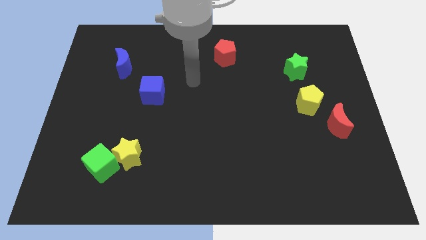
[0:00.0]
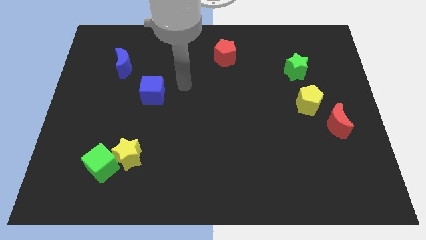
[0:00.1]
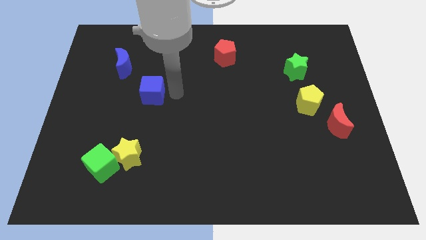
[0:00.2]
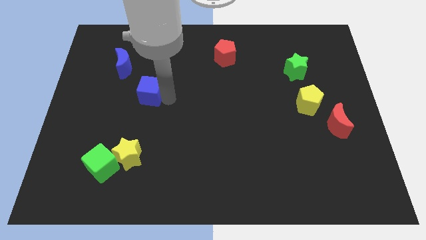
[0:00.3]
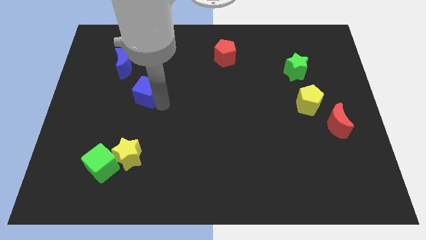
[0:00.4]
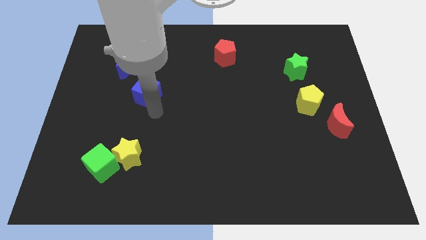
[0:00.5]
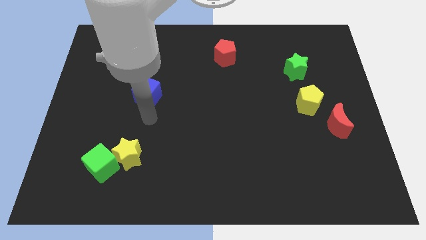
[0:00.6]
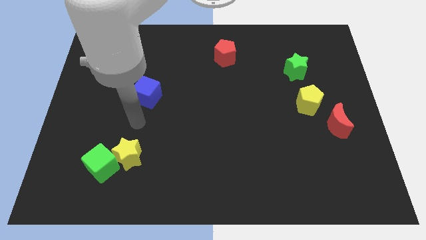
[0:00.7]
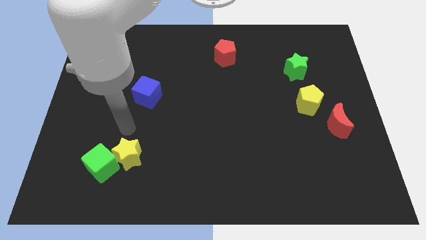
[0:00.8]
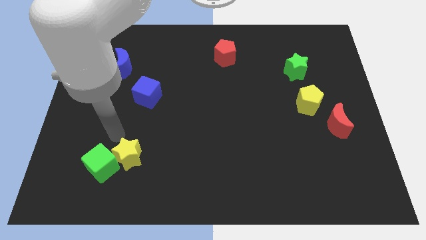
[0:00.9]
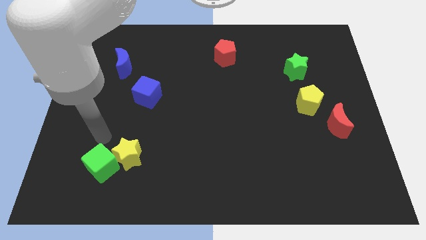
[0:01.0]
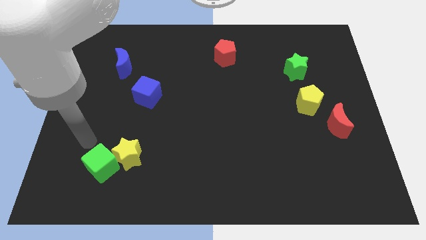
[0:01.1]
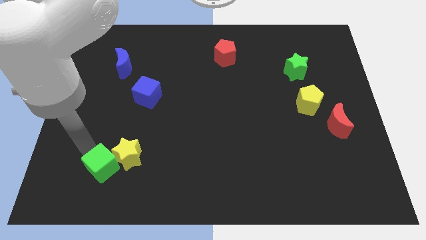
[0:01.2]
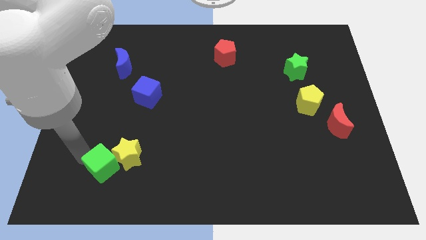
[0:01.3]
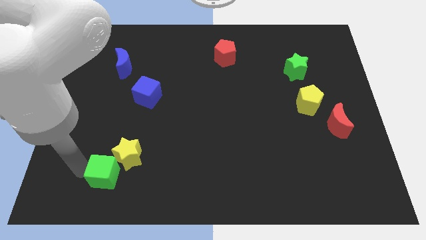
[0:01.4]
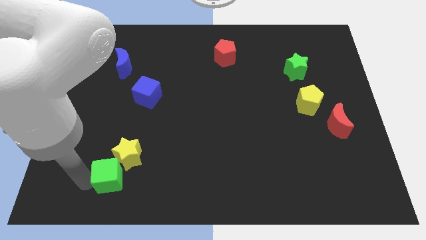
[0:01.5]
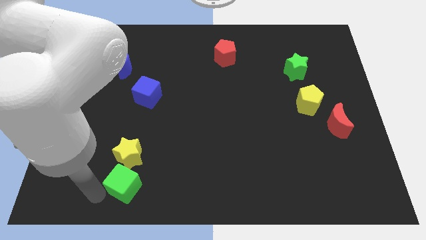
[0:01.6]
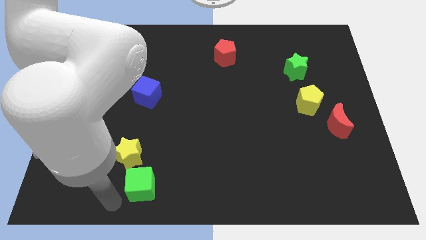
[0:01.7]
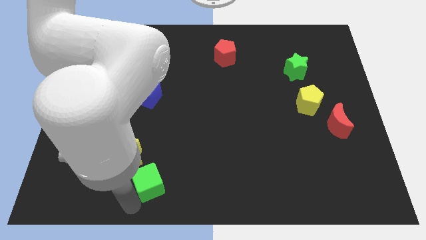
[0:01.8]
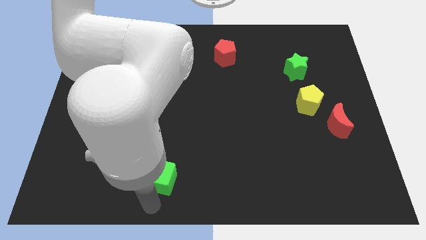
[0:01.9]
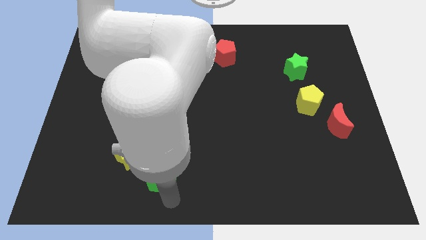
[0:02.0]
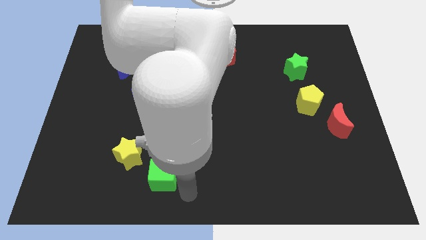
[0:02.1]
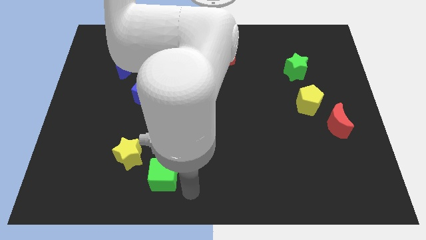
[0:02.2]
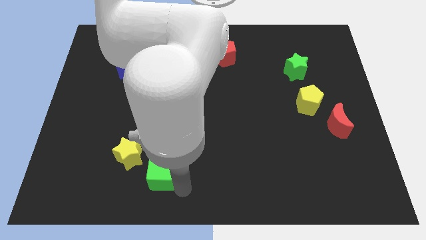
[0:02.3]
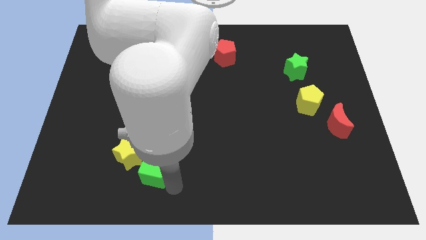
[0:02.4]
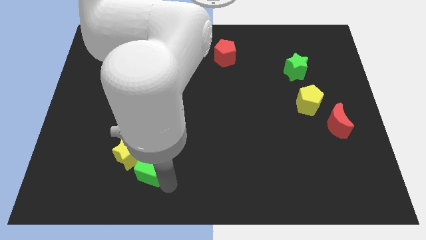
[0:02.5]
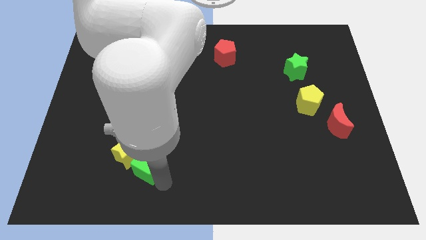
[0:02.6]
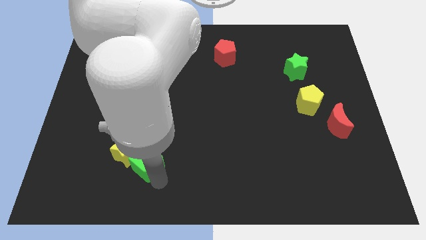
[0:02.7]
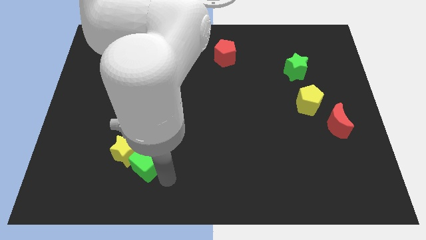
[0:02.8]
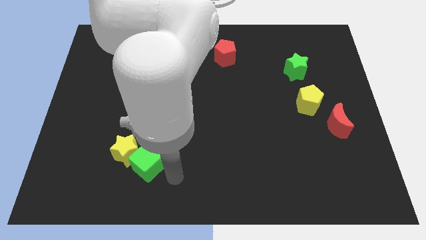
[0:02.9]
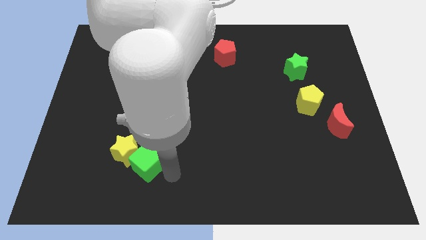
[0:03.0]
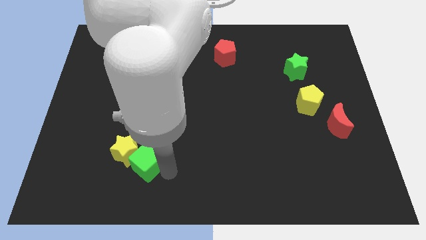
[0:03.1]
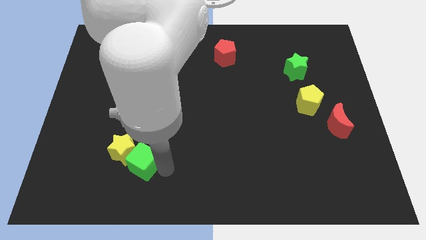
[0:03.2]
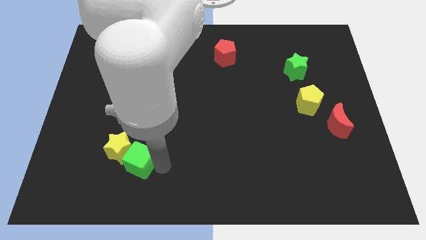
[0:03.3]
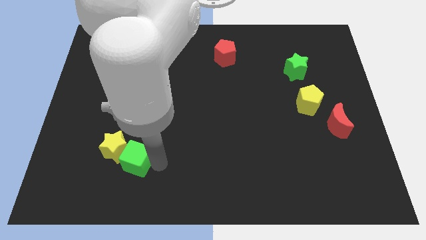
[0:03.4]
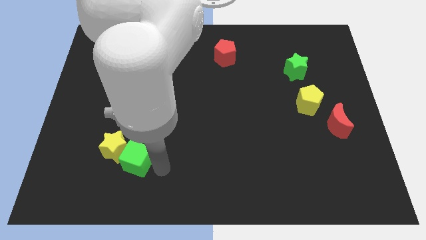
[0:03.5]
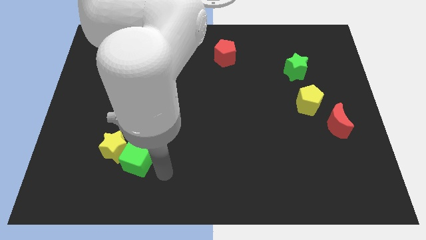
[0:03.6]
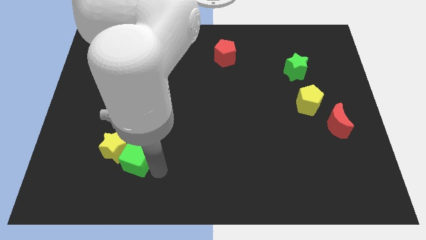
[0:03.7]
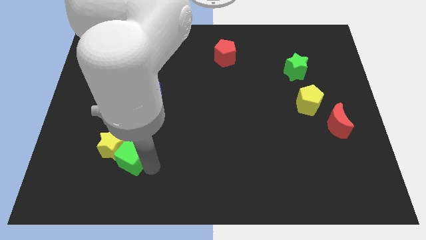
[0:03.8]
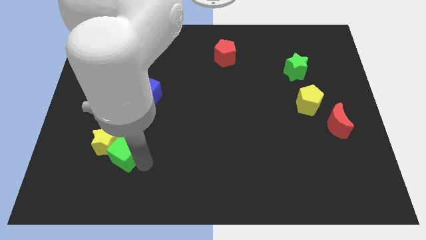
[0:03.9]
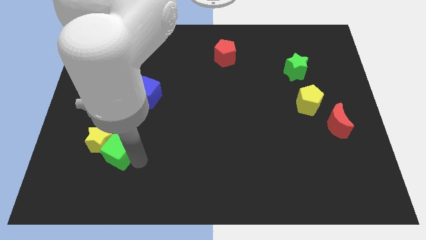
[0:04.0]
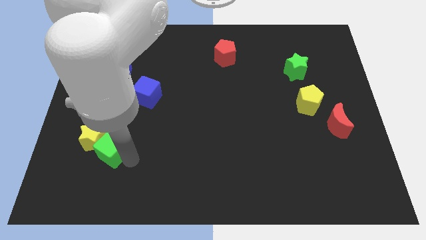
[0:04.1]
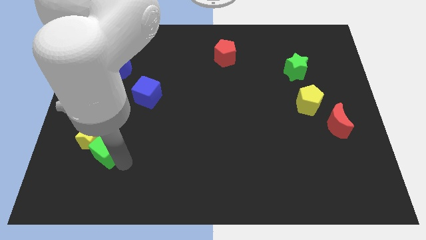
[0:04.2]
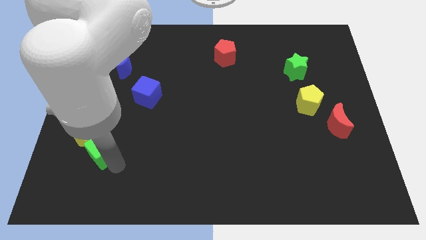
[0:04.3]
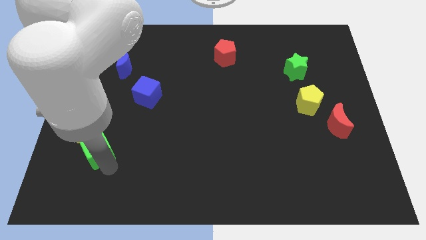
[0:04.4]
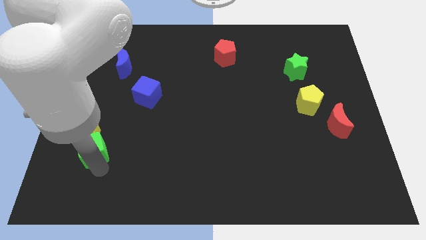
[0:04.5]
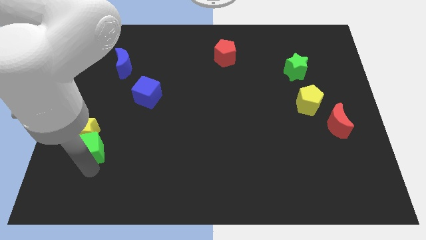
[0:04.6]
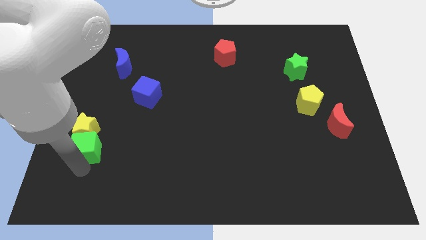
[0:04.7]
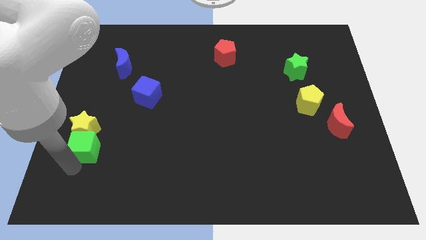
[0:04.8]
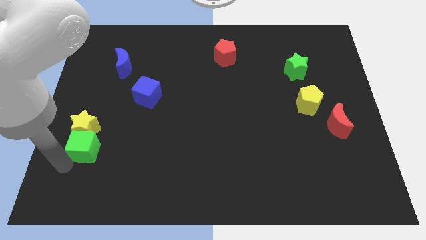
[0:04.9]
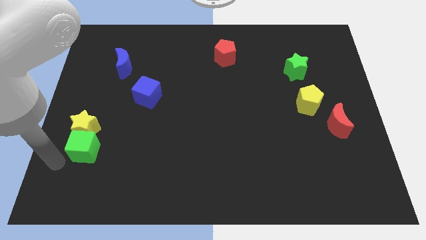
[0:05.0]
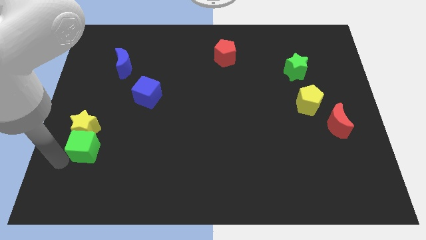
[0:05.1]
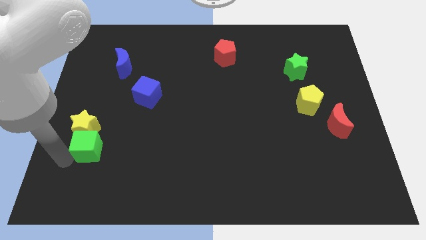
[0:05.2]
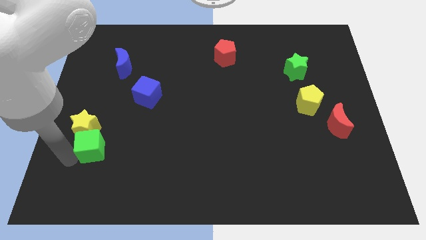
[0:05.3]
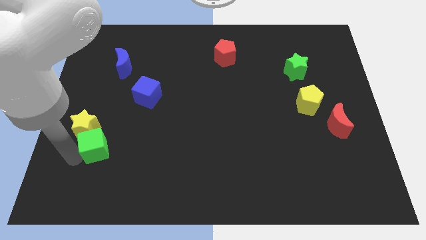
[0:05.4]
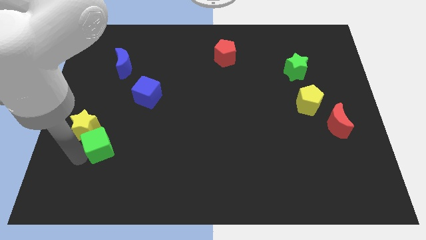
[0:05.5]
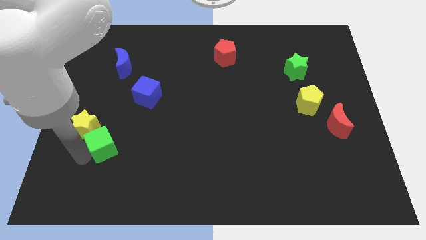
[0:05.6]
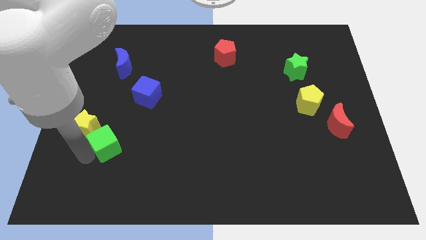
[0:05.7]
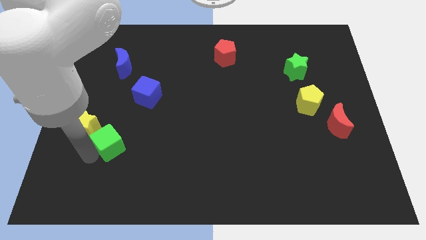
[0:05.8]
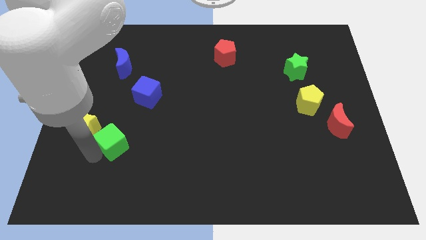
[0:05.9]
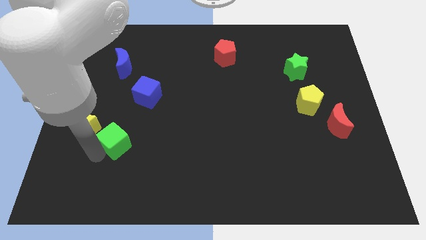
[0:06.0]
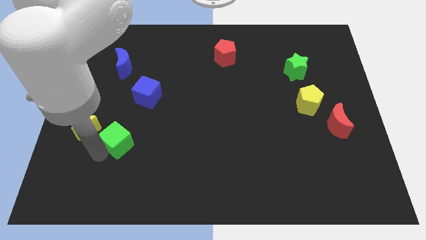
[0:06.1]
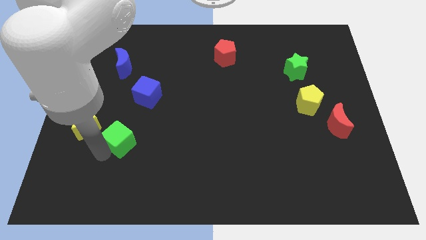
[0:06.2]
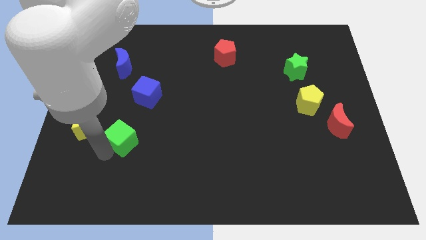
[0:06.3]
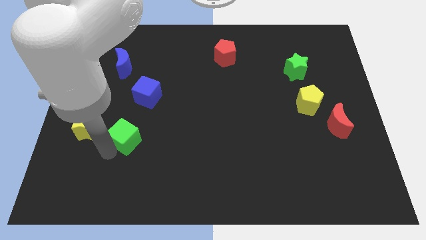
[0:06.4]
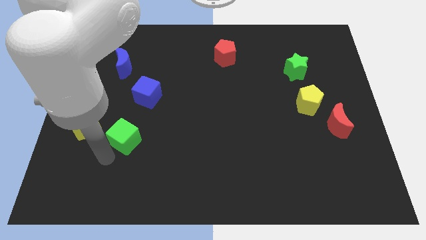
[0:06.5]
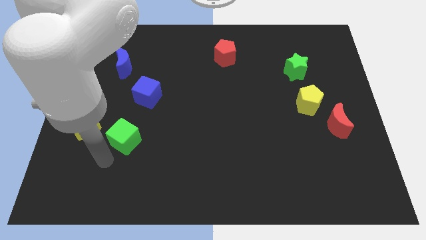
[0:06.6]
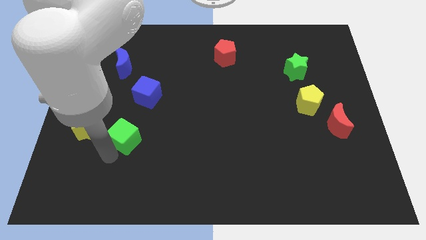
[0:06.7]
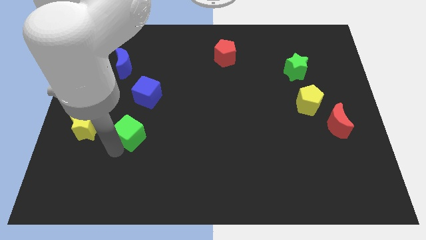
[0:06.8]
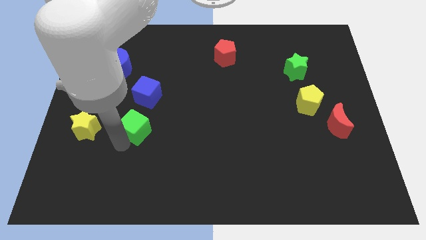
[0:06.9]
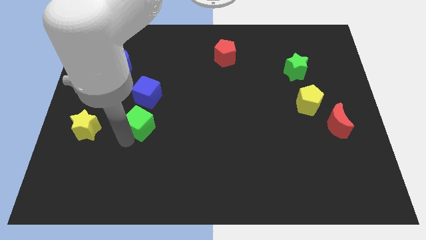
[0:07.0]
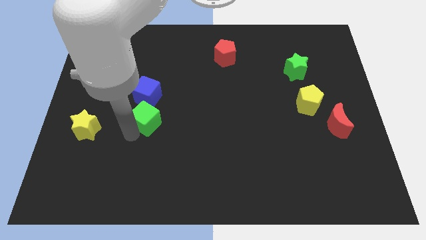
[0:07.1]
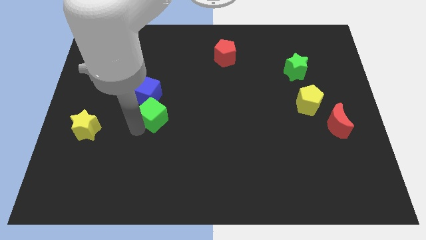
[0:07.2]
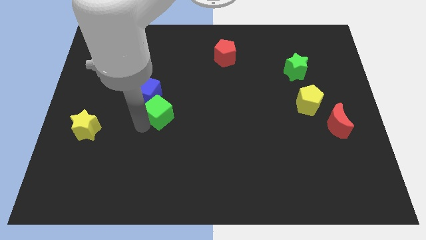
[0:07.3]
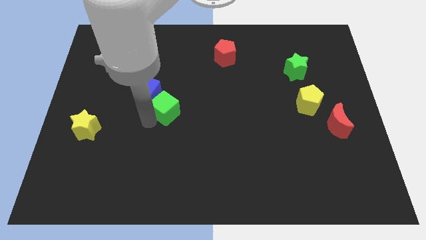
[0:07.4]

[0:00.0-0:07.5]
move the green cube to the middle
